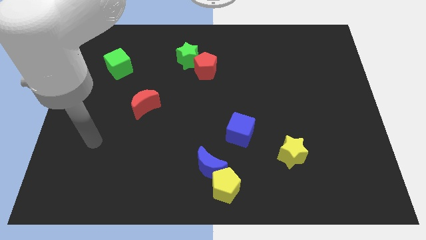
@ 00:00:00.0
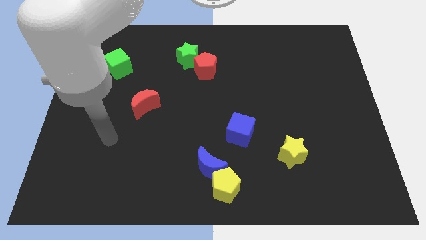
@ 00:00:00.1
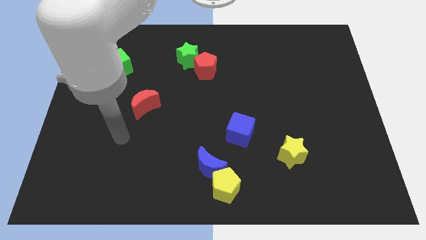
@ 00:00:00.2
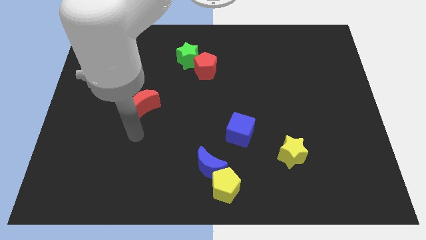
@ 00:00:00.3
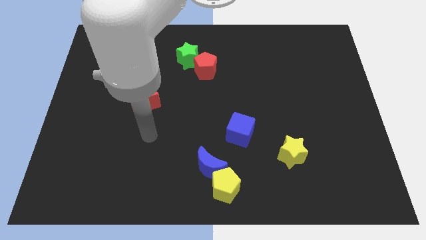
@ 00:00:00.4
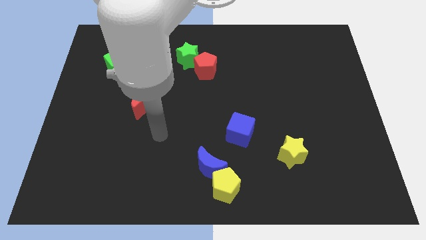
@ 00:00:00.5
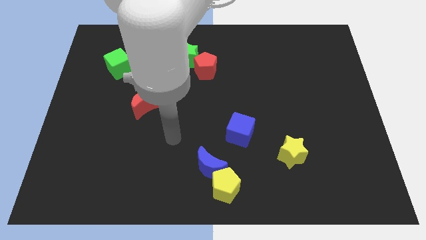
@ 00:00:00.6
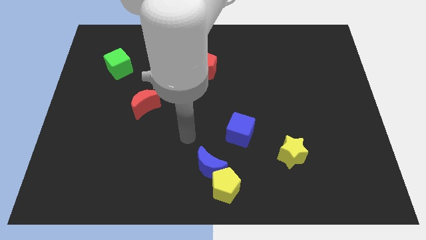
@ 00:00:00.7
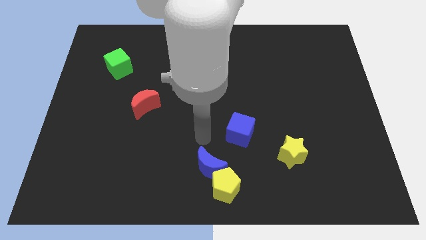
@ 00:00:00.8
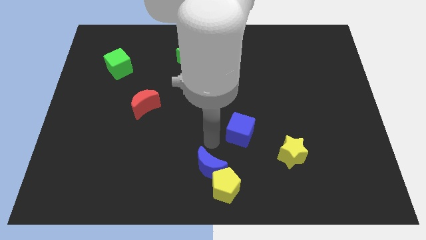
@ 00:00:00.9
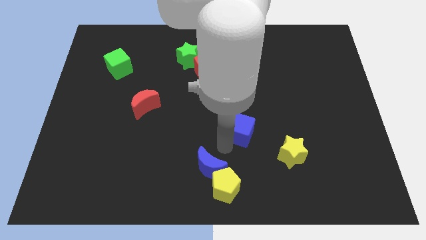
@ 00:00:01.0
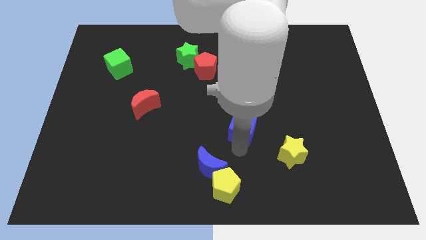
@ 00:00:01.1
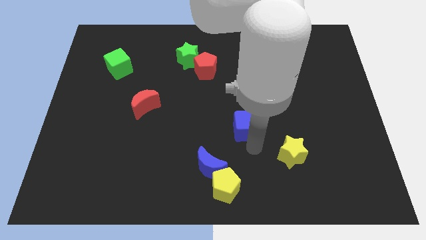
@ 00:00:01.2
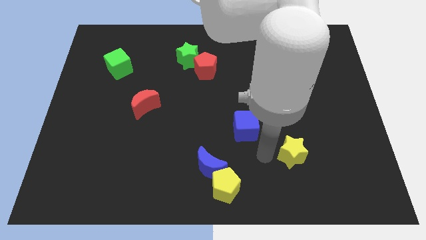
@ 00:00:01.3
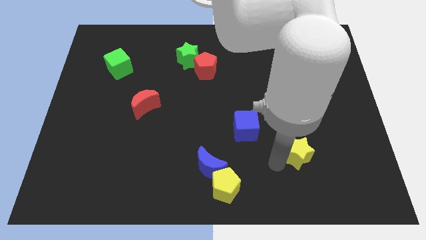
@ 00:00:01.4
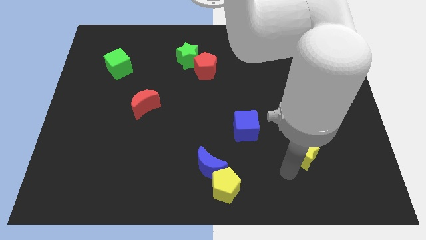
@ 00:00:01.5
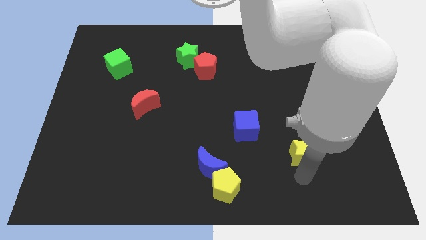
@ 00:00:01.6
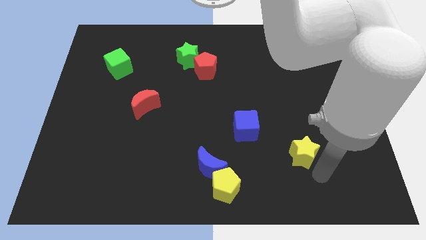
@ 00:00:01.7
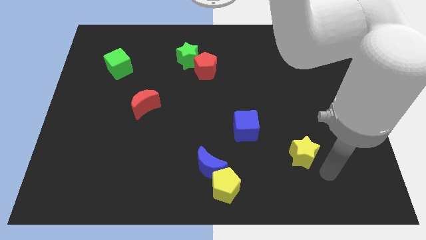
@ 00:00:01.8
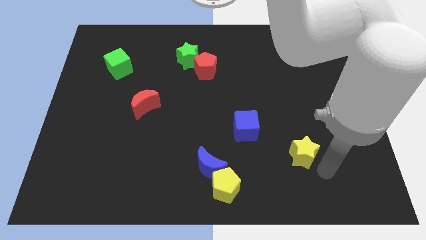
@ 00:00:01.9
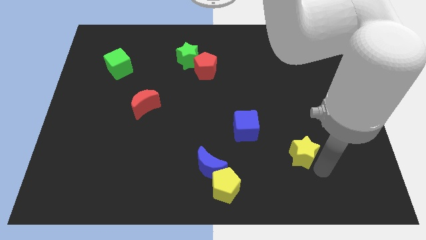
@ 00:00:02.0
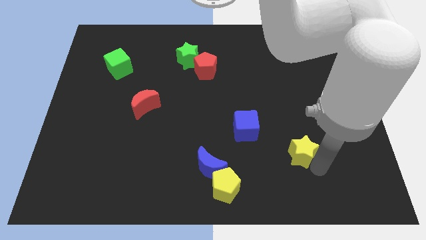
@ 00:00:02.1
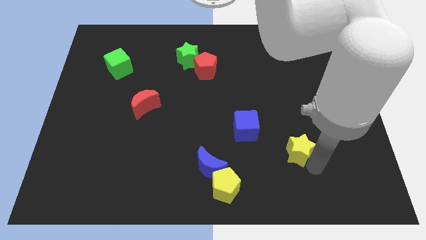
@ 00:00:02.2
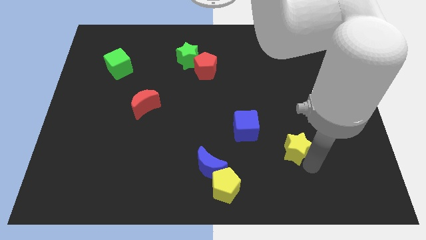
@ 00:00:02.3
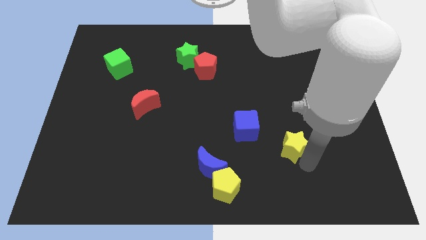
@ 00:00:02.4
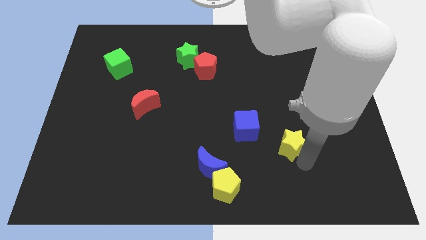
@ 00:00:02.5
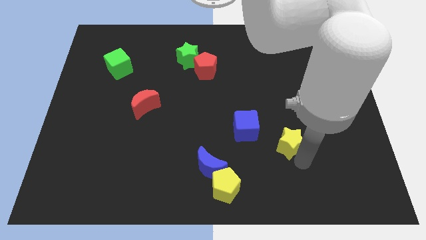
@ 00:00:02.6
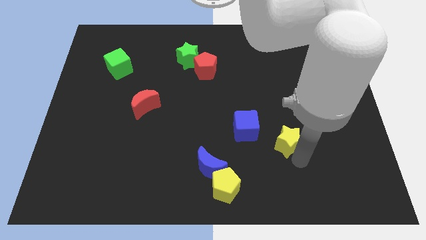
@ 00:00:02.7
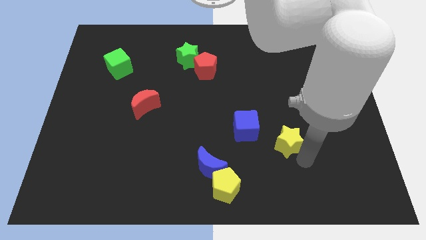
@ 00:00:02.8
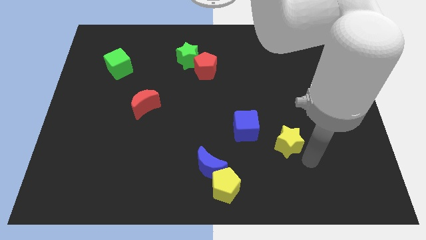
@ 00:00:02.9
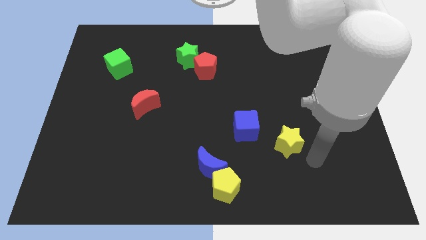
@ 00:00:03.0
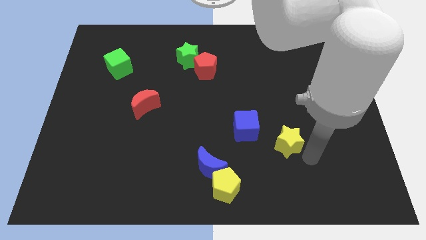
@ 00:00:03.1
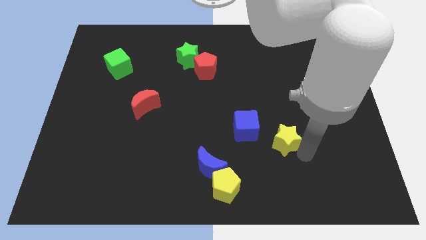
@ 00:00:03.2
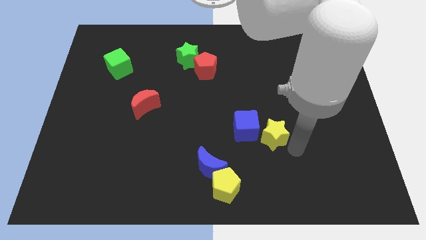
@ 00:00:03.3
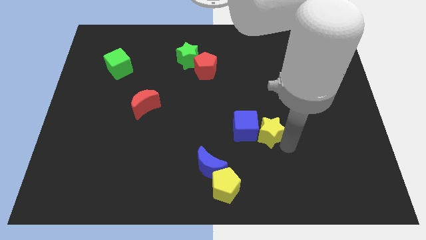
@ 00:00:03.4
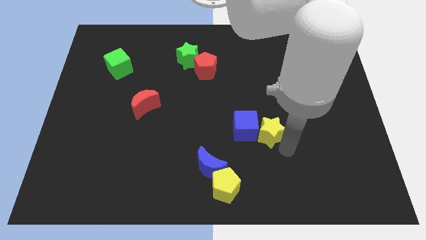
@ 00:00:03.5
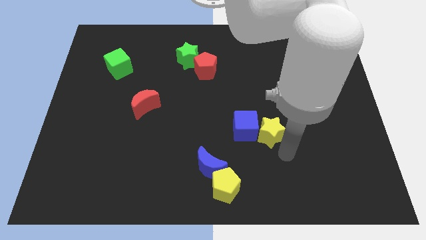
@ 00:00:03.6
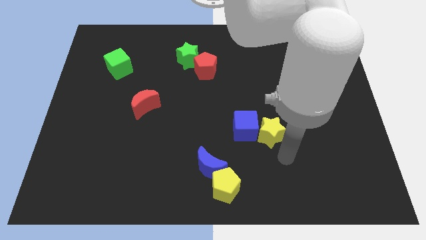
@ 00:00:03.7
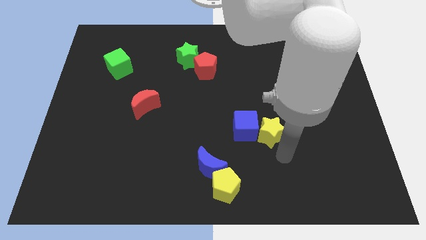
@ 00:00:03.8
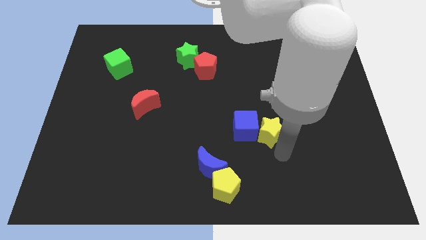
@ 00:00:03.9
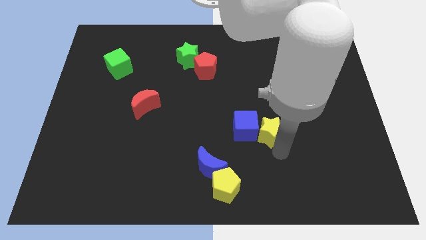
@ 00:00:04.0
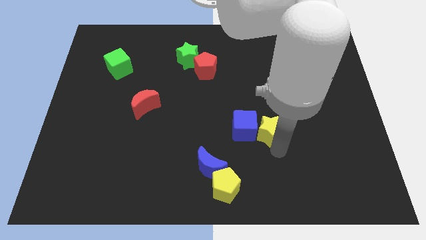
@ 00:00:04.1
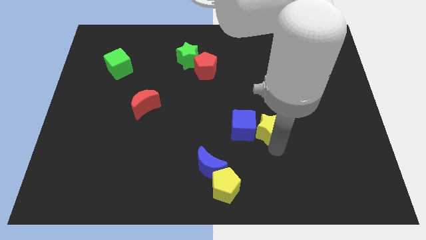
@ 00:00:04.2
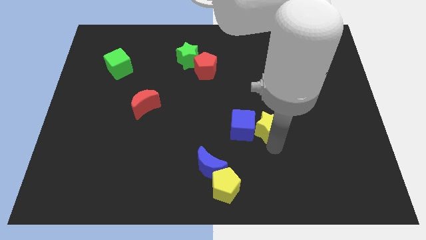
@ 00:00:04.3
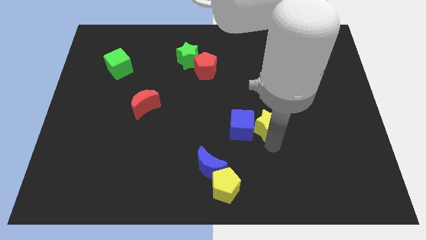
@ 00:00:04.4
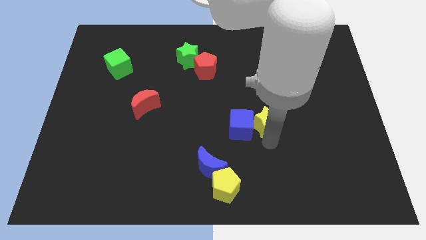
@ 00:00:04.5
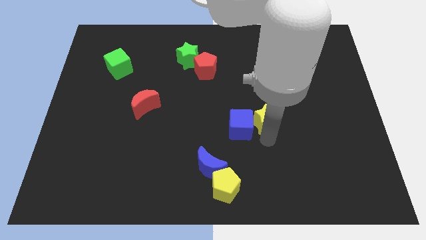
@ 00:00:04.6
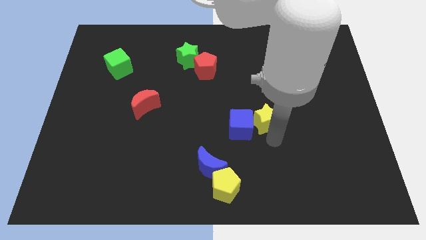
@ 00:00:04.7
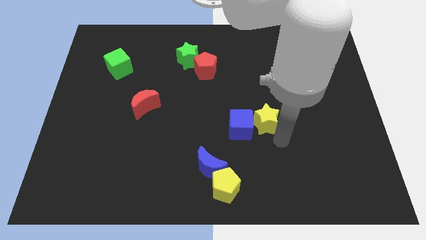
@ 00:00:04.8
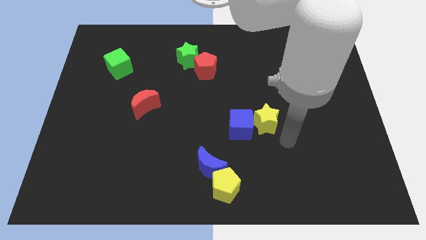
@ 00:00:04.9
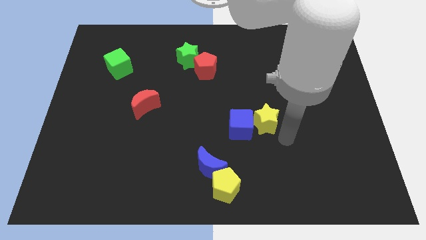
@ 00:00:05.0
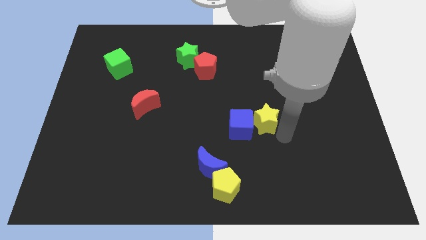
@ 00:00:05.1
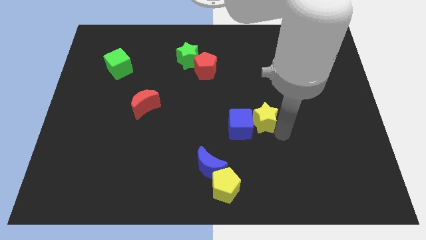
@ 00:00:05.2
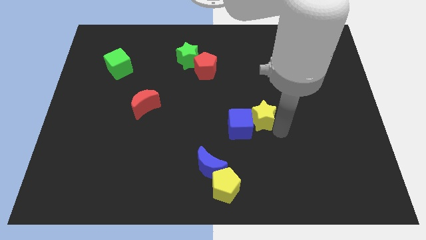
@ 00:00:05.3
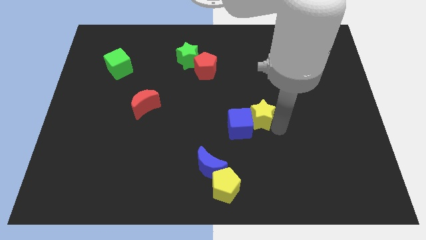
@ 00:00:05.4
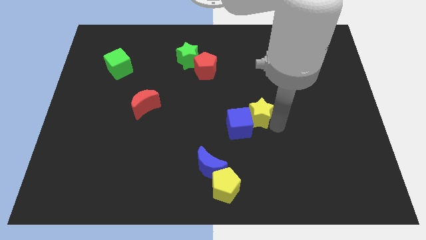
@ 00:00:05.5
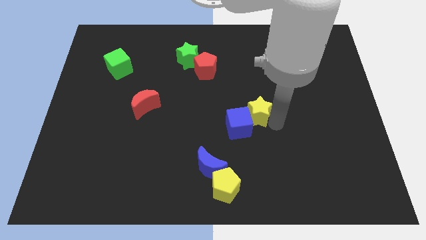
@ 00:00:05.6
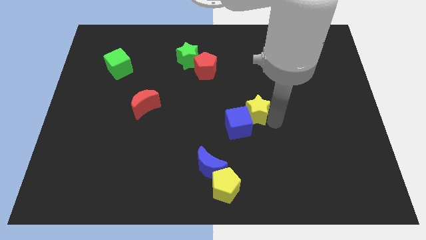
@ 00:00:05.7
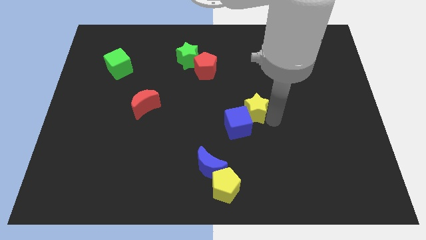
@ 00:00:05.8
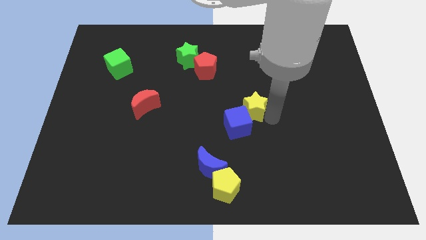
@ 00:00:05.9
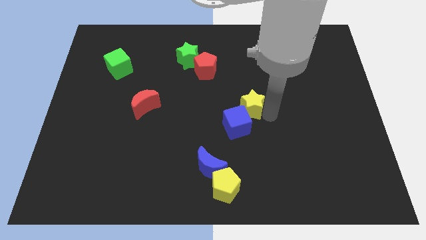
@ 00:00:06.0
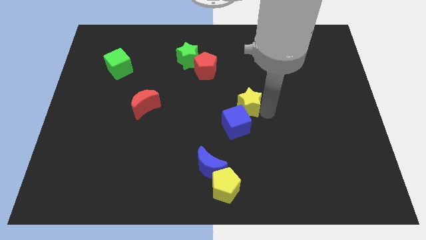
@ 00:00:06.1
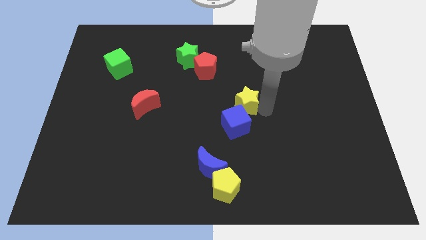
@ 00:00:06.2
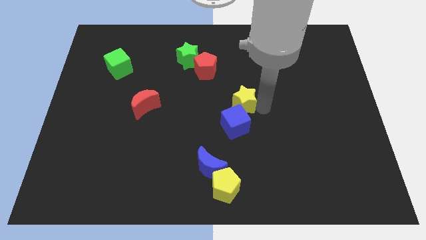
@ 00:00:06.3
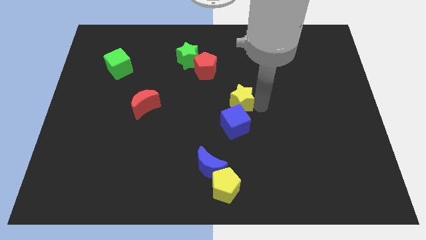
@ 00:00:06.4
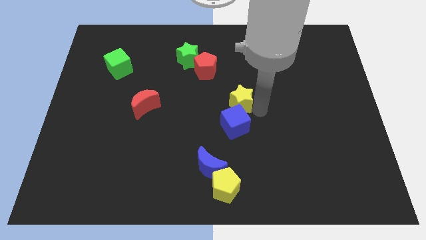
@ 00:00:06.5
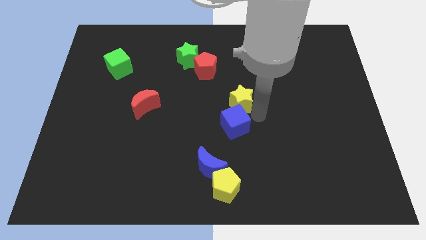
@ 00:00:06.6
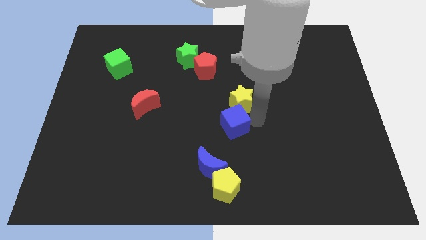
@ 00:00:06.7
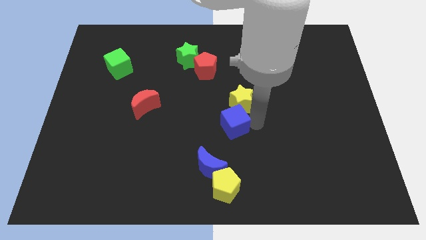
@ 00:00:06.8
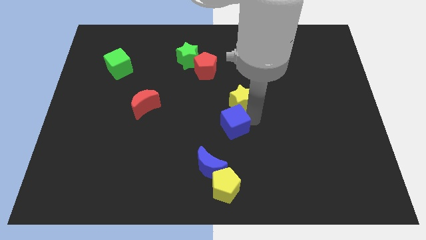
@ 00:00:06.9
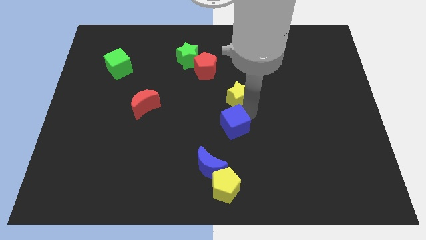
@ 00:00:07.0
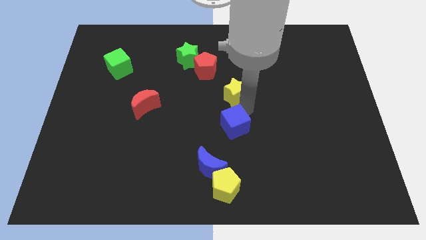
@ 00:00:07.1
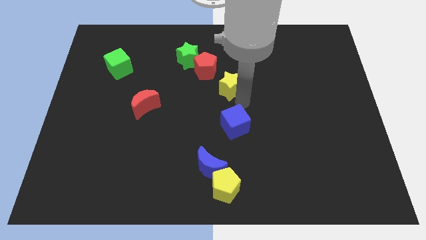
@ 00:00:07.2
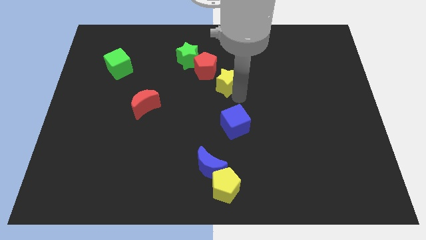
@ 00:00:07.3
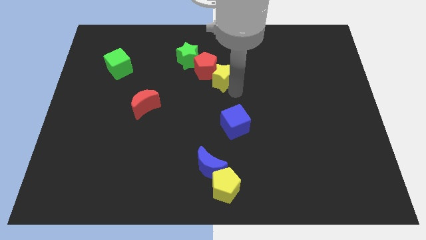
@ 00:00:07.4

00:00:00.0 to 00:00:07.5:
move the yellow star to the bottom right of the green star
